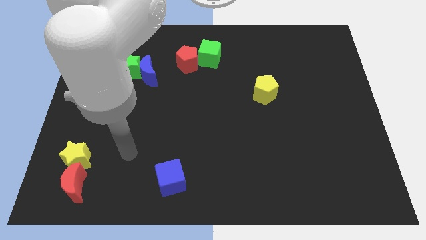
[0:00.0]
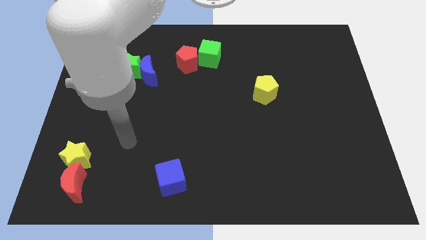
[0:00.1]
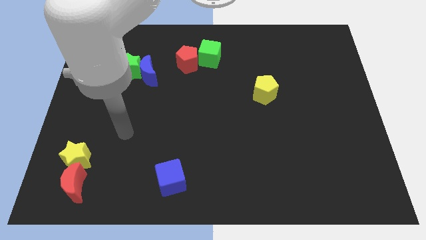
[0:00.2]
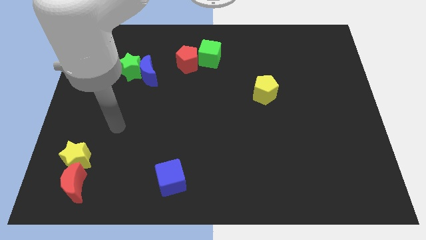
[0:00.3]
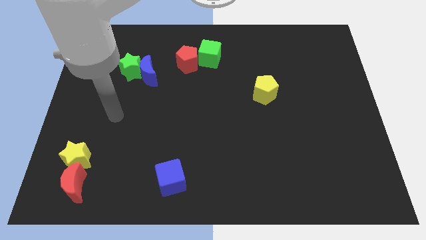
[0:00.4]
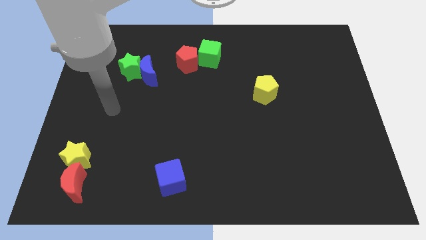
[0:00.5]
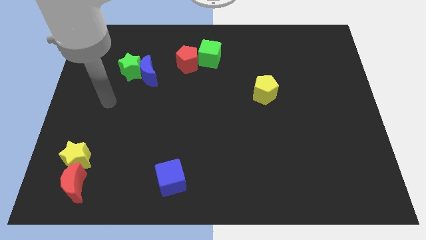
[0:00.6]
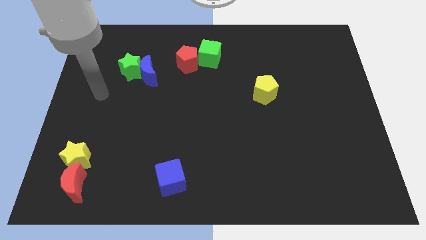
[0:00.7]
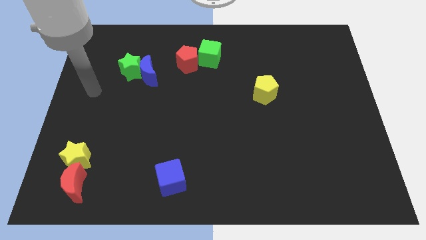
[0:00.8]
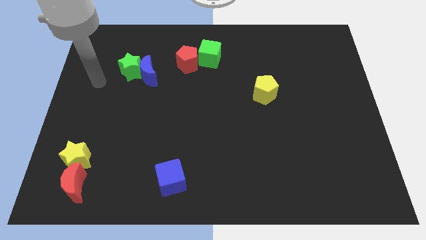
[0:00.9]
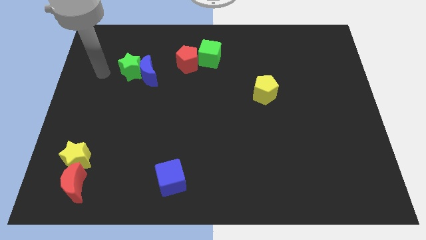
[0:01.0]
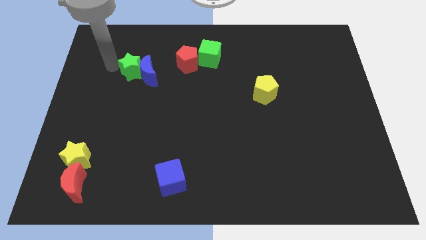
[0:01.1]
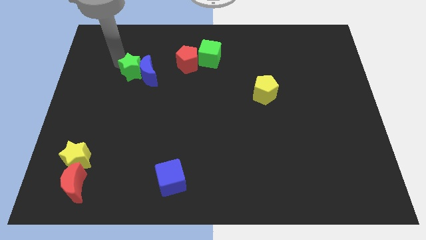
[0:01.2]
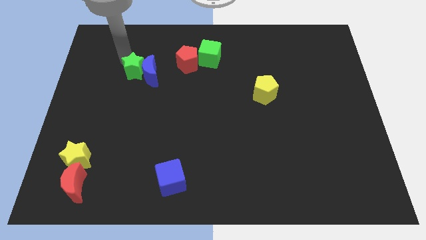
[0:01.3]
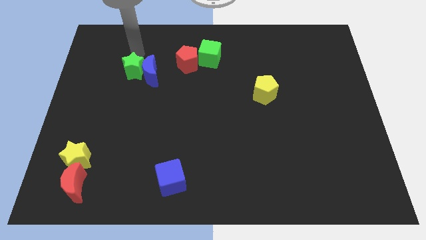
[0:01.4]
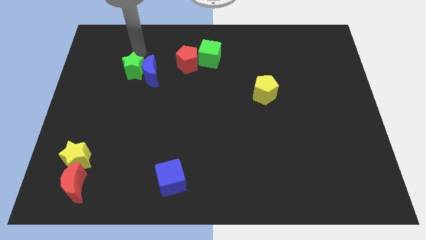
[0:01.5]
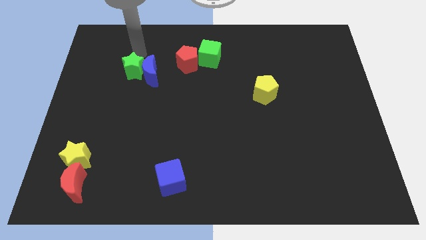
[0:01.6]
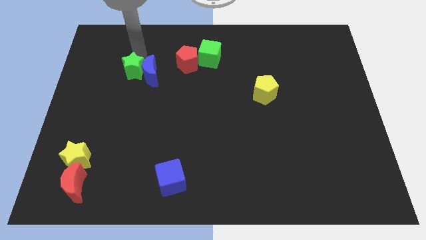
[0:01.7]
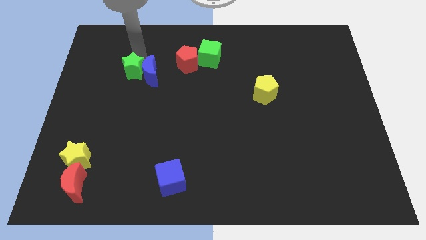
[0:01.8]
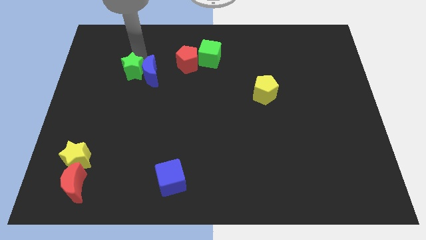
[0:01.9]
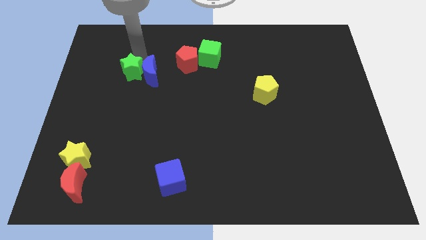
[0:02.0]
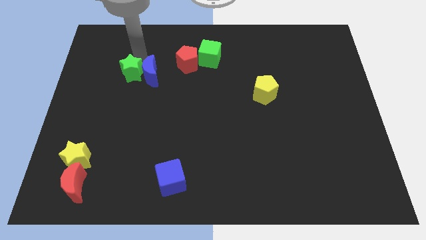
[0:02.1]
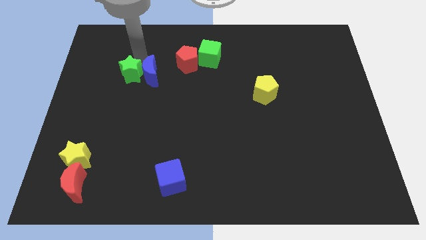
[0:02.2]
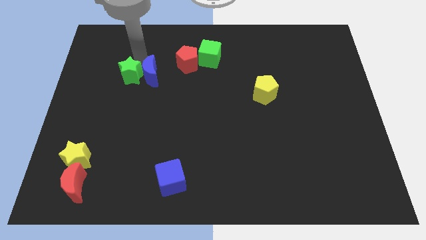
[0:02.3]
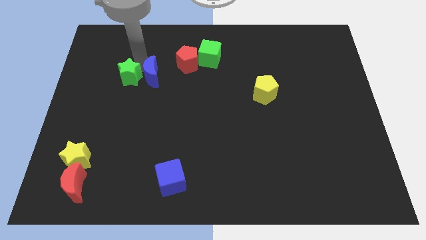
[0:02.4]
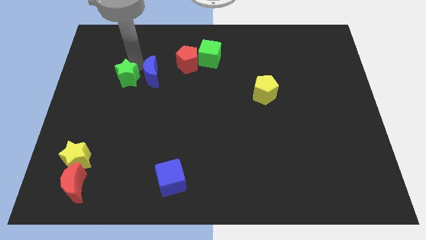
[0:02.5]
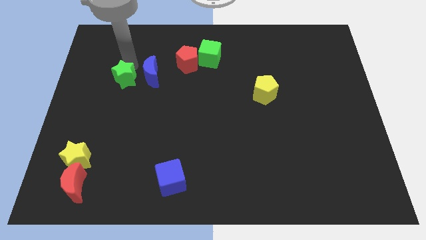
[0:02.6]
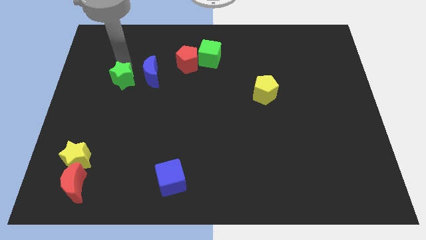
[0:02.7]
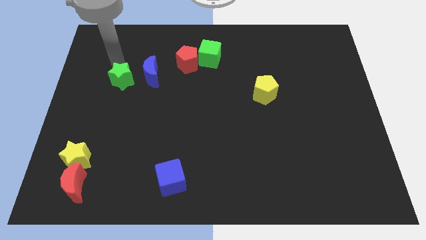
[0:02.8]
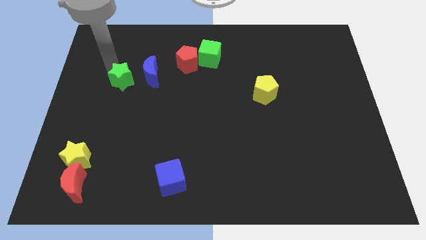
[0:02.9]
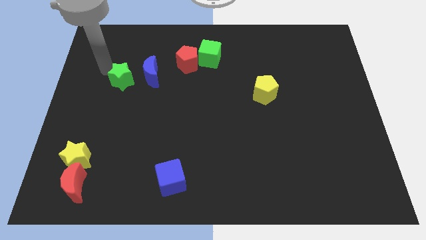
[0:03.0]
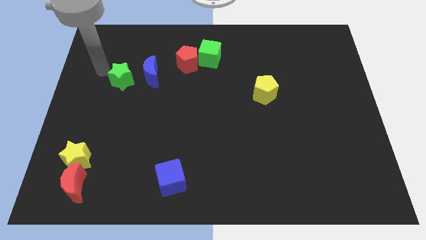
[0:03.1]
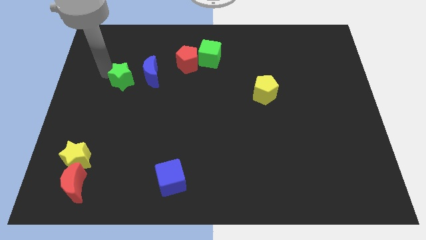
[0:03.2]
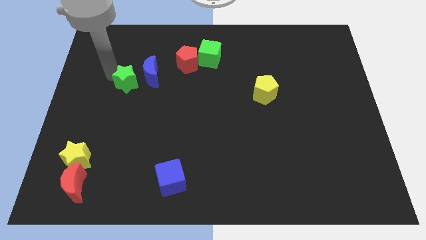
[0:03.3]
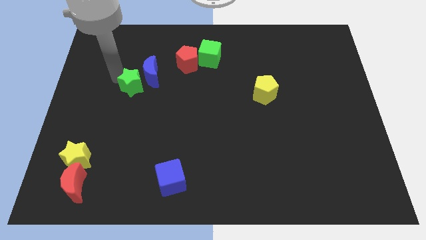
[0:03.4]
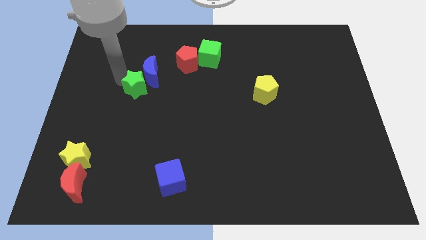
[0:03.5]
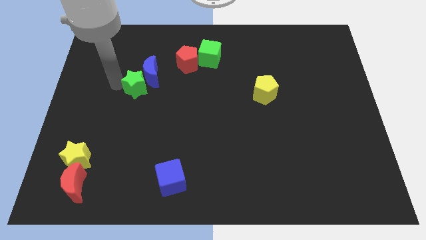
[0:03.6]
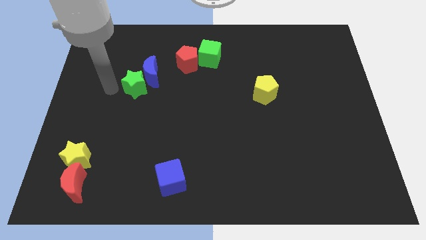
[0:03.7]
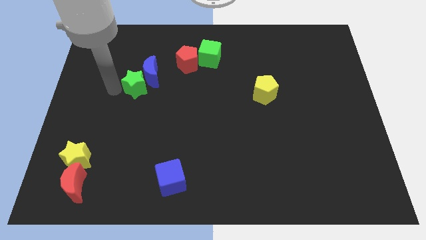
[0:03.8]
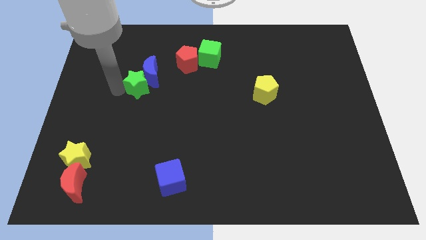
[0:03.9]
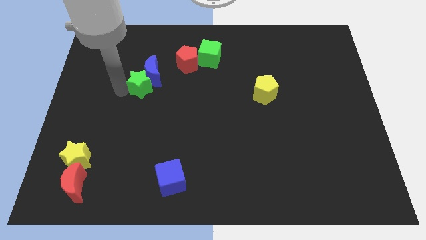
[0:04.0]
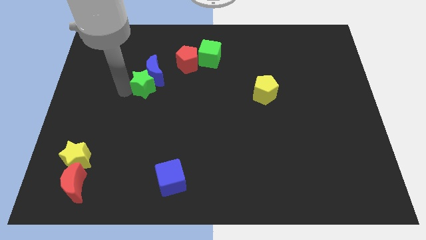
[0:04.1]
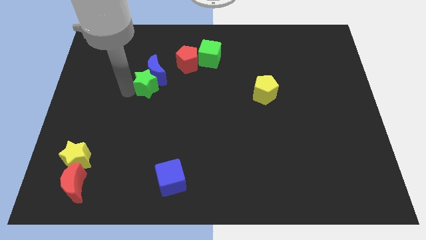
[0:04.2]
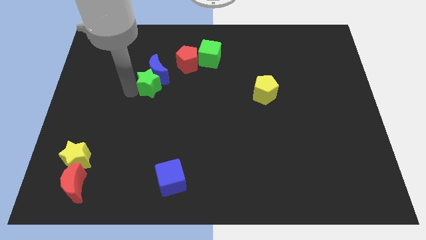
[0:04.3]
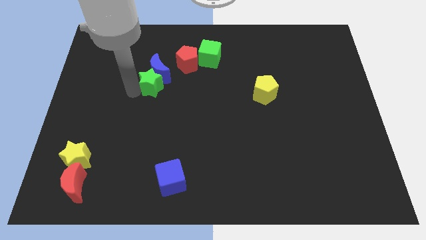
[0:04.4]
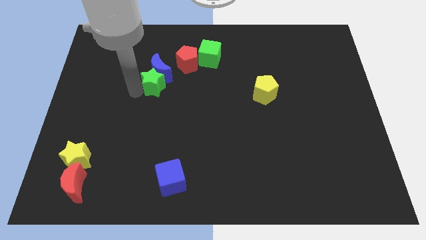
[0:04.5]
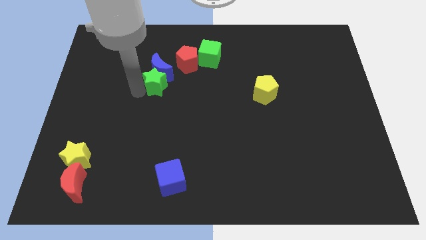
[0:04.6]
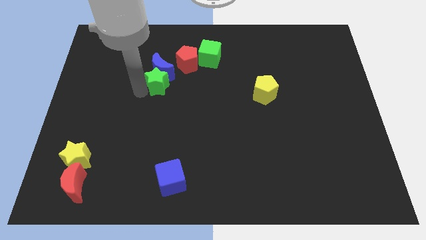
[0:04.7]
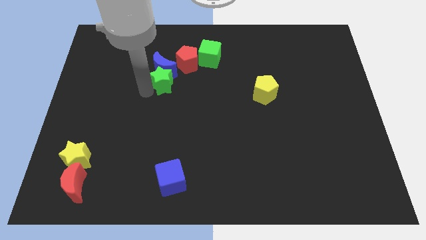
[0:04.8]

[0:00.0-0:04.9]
slide the green star a little bit to the right

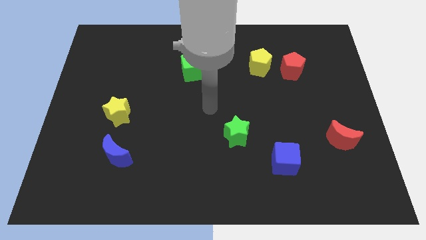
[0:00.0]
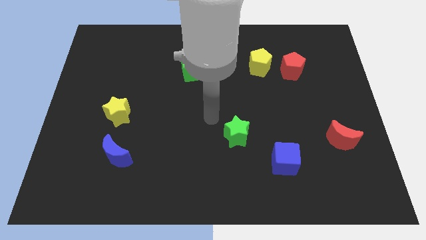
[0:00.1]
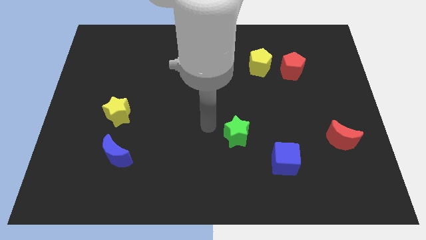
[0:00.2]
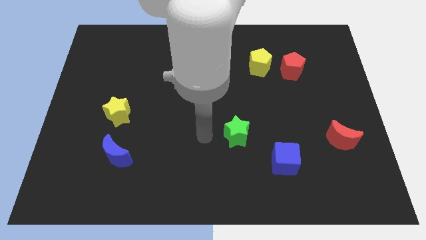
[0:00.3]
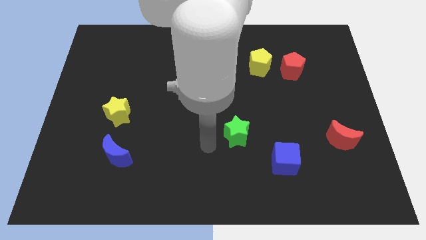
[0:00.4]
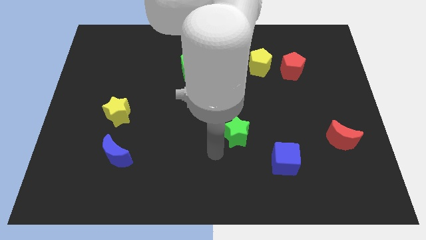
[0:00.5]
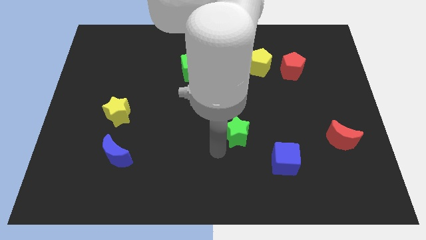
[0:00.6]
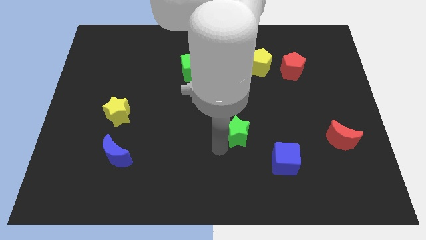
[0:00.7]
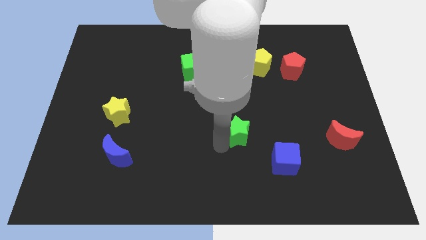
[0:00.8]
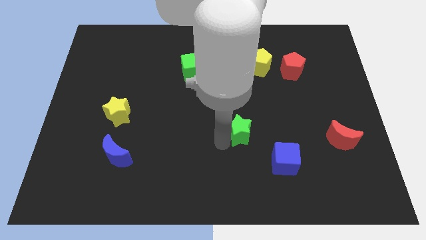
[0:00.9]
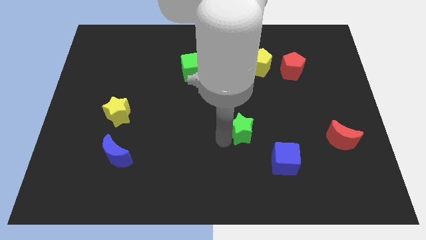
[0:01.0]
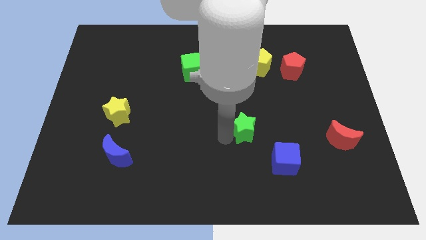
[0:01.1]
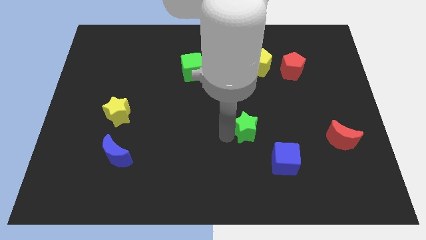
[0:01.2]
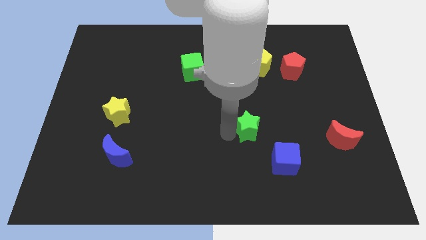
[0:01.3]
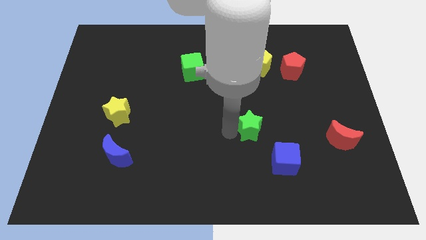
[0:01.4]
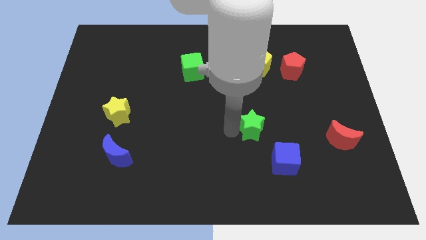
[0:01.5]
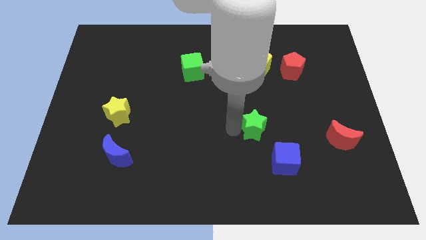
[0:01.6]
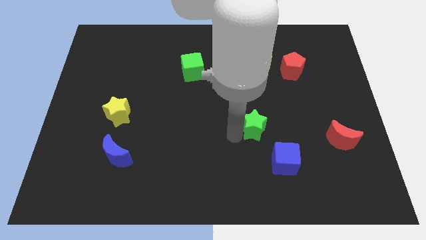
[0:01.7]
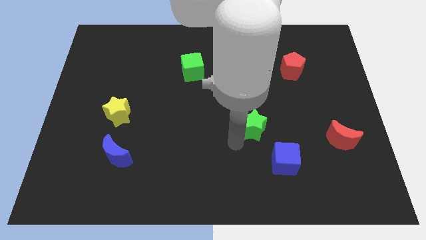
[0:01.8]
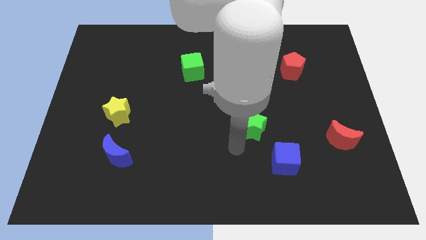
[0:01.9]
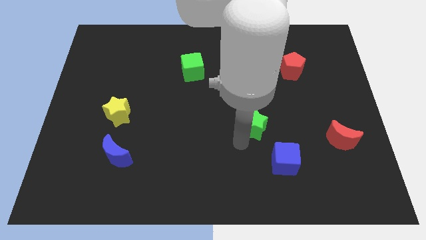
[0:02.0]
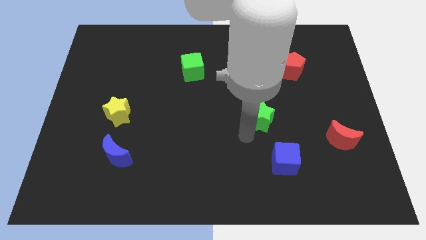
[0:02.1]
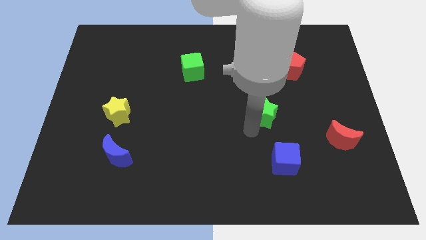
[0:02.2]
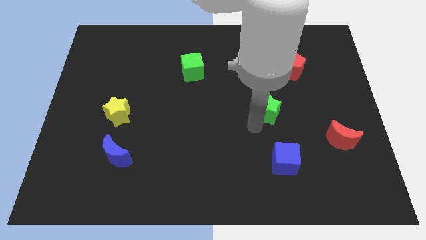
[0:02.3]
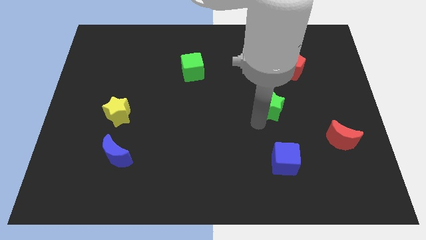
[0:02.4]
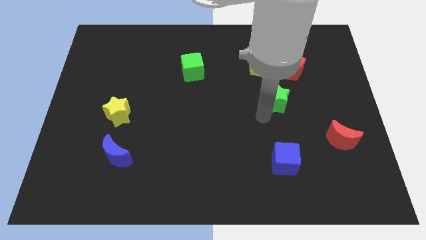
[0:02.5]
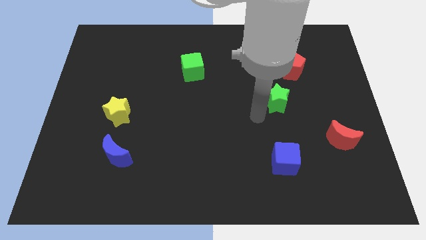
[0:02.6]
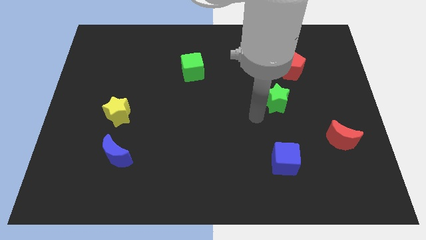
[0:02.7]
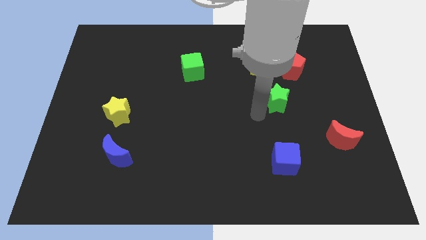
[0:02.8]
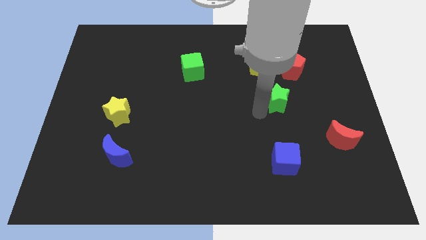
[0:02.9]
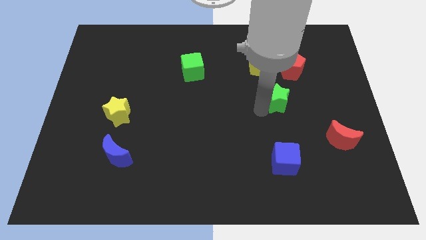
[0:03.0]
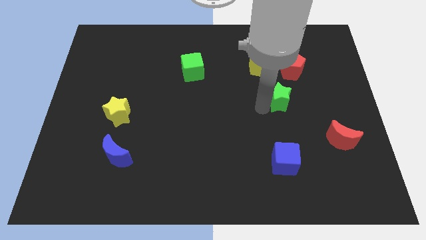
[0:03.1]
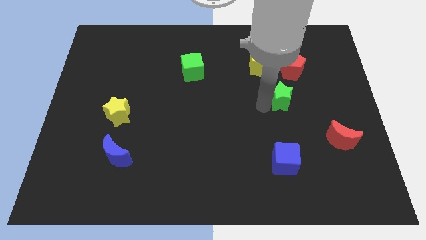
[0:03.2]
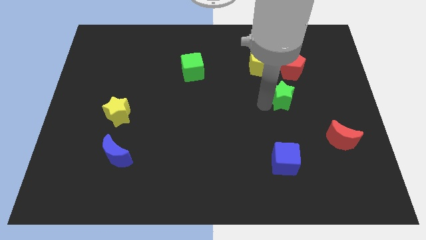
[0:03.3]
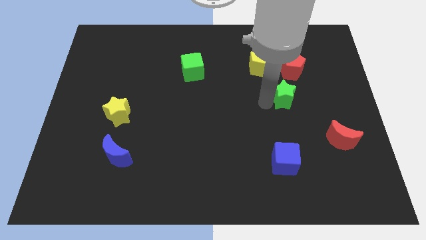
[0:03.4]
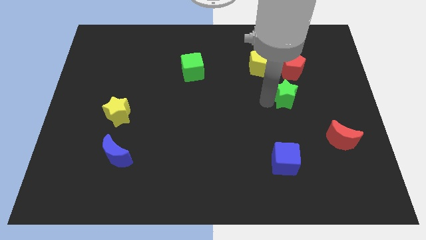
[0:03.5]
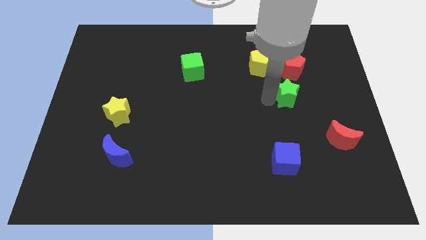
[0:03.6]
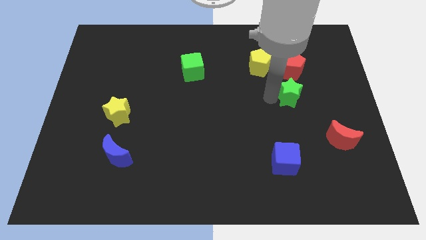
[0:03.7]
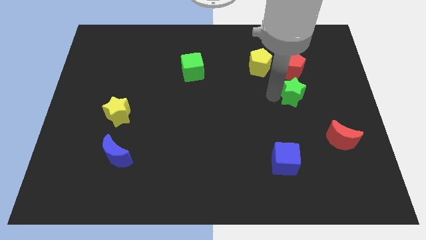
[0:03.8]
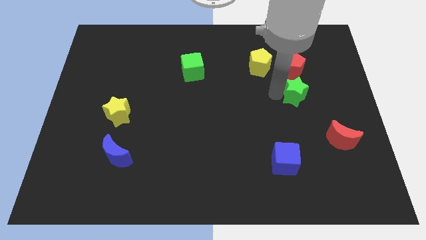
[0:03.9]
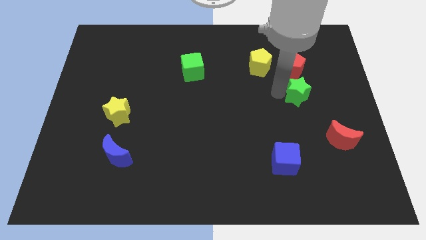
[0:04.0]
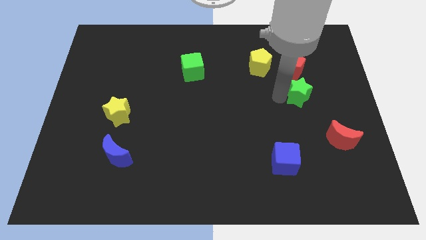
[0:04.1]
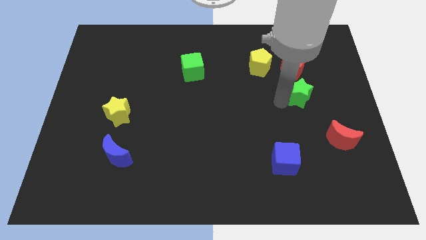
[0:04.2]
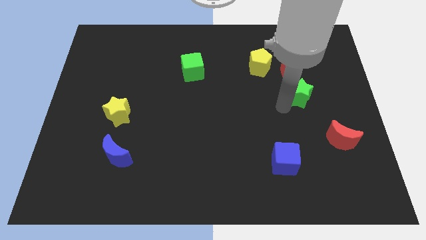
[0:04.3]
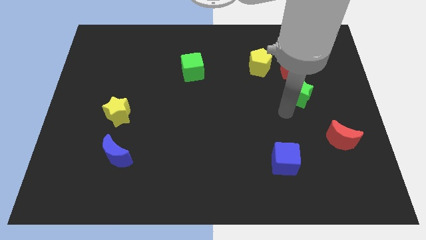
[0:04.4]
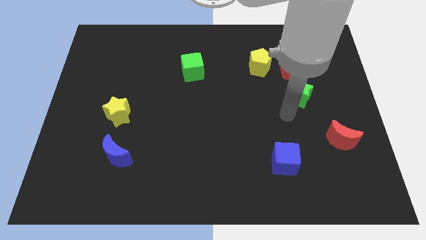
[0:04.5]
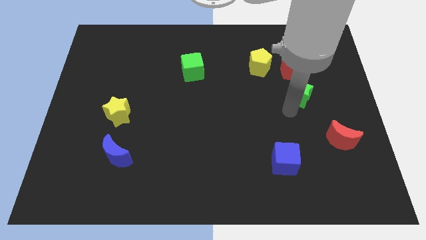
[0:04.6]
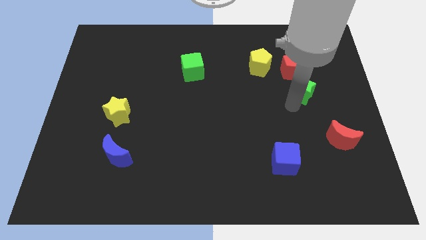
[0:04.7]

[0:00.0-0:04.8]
slide the green star up and then right
